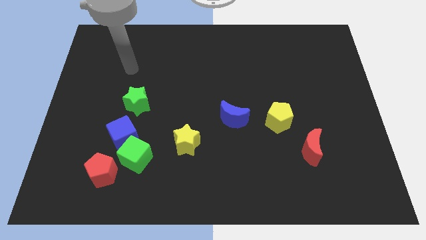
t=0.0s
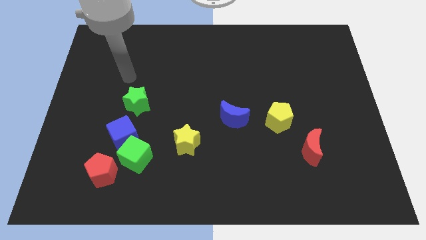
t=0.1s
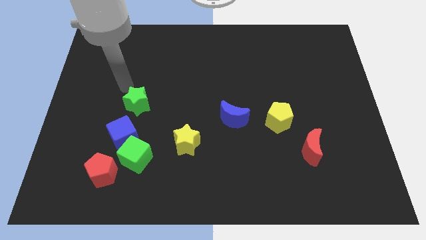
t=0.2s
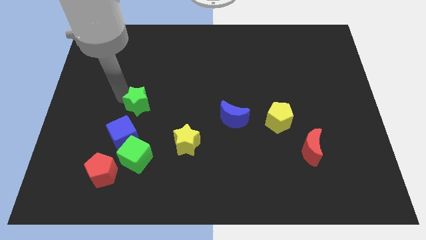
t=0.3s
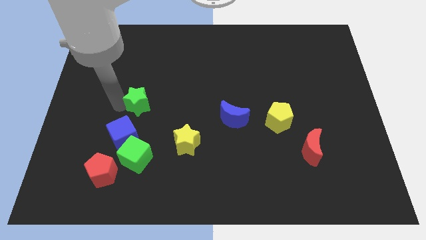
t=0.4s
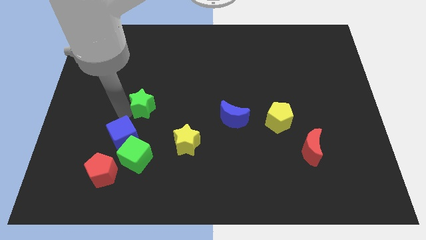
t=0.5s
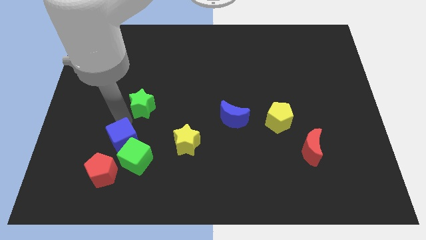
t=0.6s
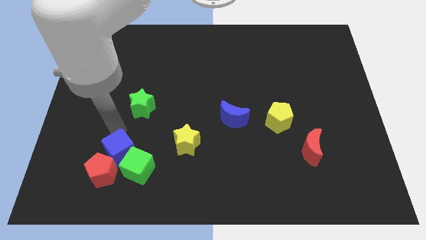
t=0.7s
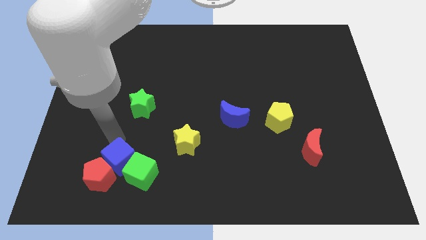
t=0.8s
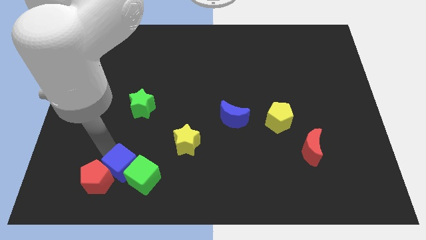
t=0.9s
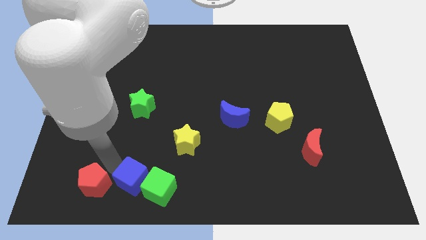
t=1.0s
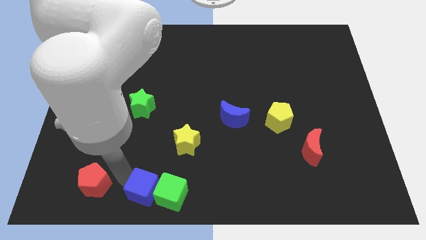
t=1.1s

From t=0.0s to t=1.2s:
separate the green cube from the blue cube and red pentagon

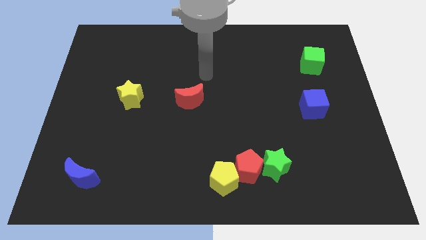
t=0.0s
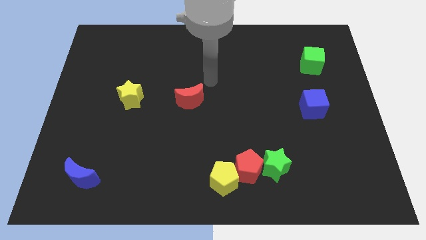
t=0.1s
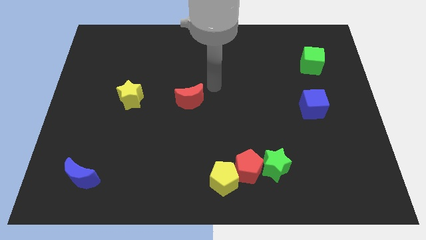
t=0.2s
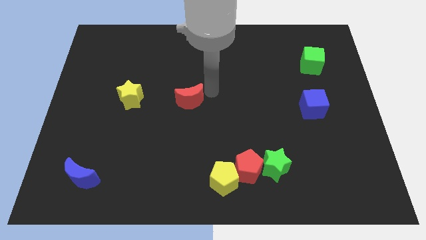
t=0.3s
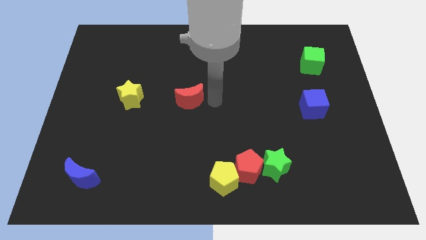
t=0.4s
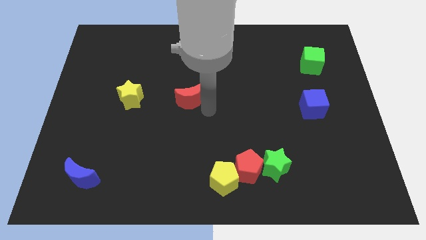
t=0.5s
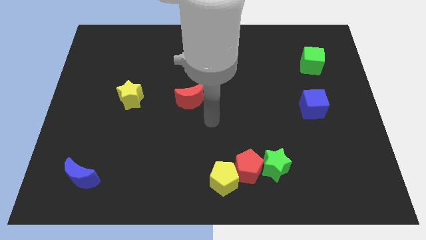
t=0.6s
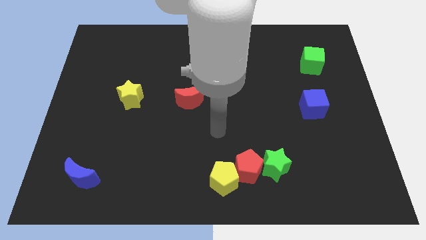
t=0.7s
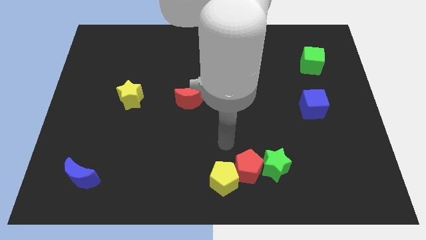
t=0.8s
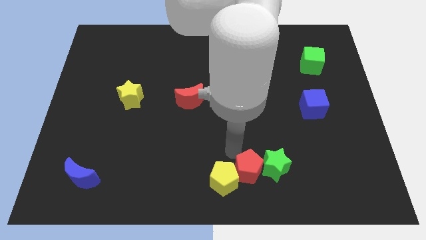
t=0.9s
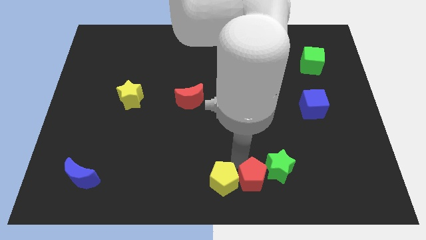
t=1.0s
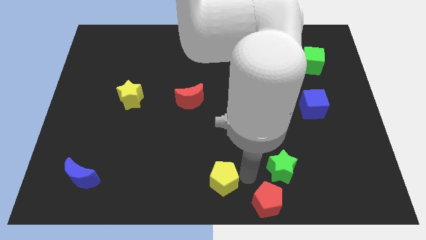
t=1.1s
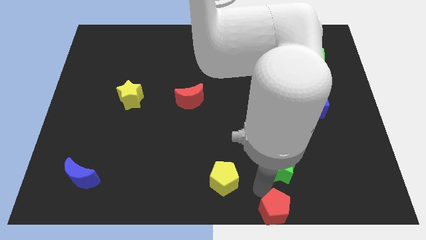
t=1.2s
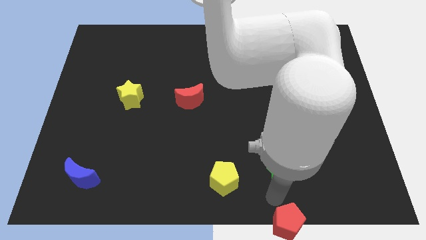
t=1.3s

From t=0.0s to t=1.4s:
move the green star away from the red pentagon

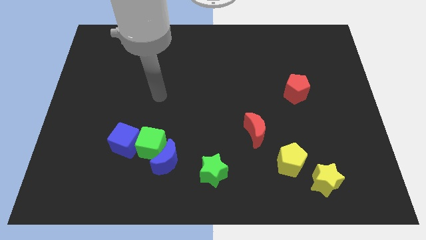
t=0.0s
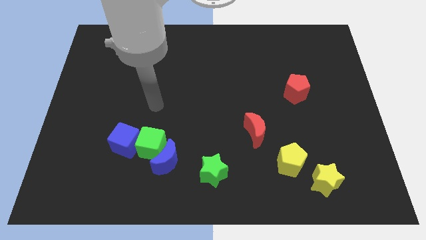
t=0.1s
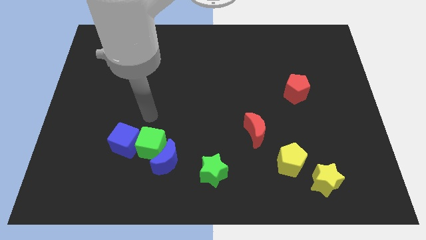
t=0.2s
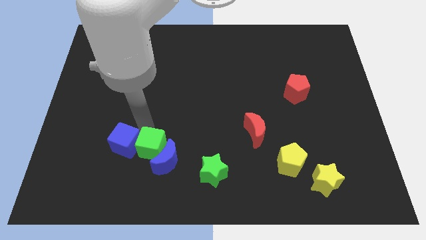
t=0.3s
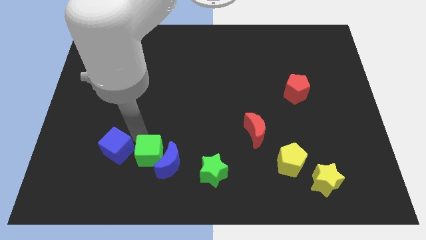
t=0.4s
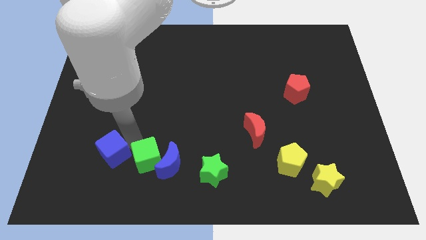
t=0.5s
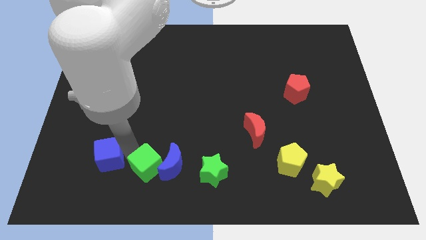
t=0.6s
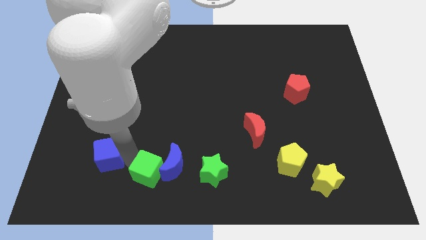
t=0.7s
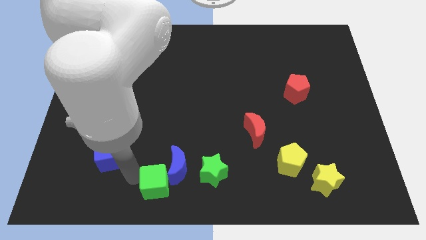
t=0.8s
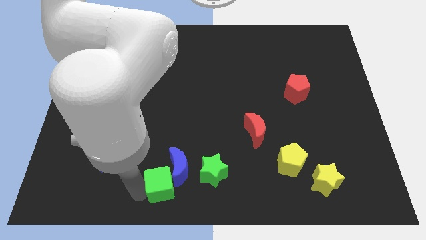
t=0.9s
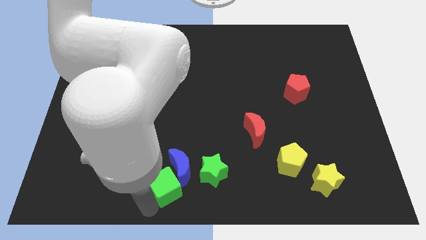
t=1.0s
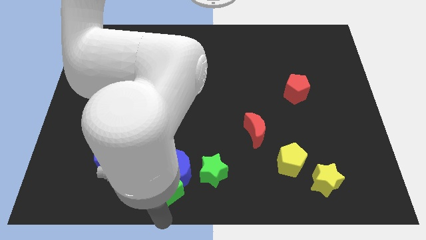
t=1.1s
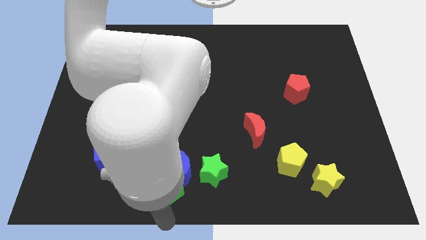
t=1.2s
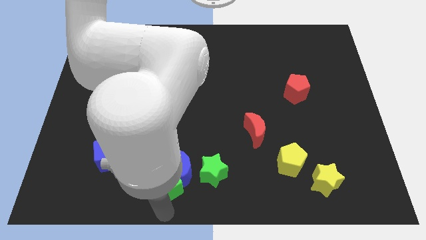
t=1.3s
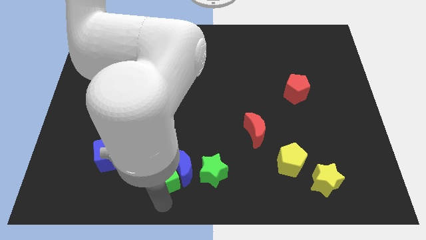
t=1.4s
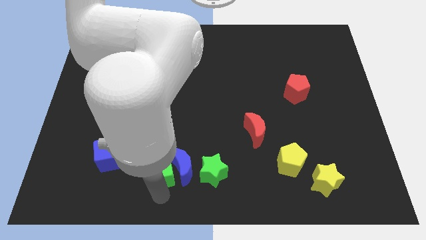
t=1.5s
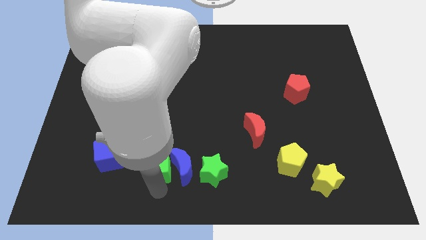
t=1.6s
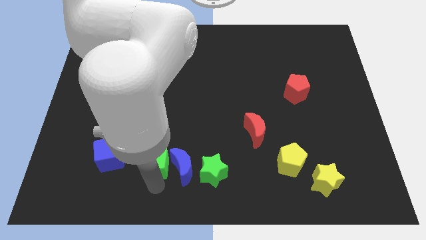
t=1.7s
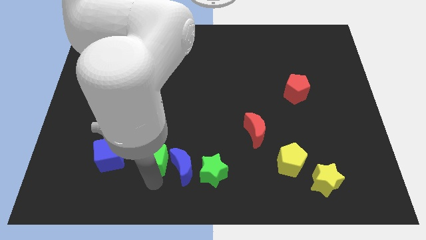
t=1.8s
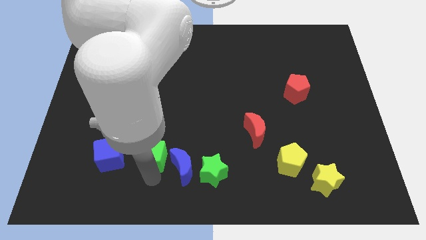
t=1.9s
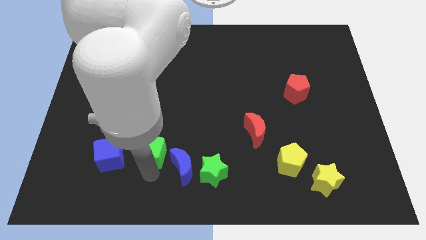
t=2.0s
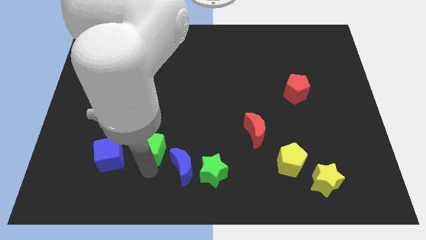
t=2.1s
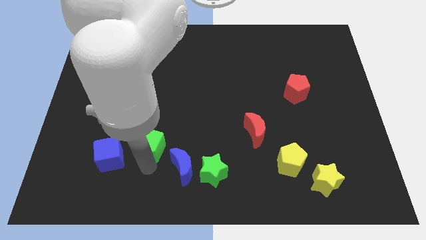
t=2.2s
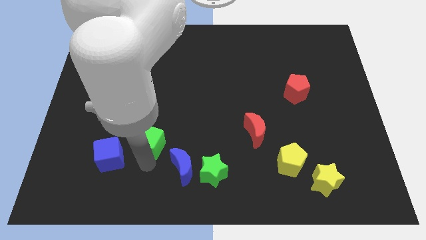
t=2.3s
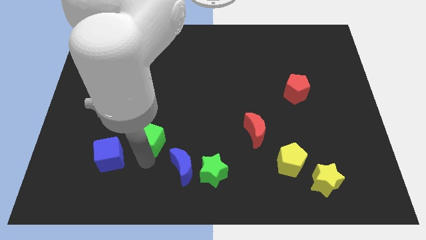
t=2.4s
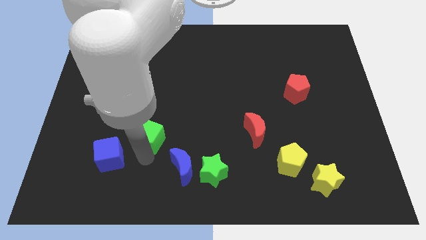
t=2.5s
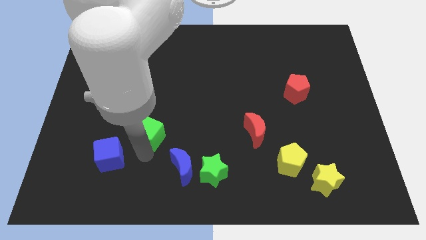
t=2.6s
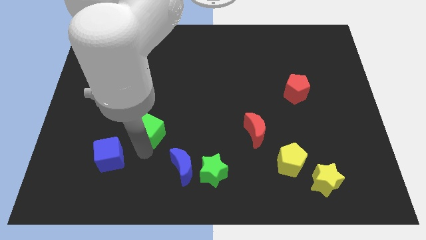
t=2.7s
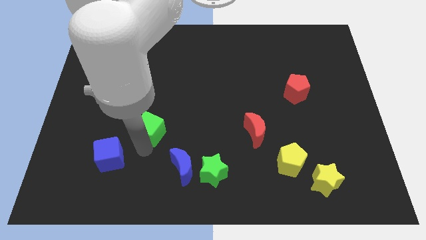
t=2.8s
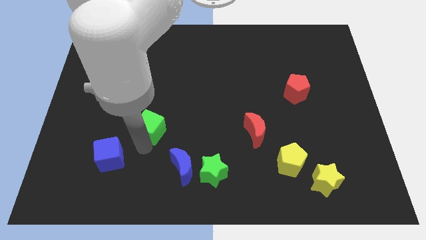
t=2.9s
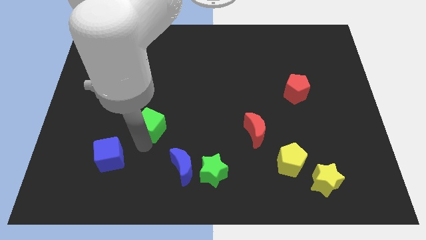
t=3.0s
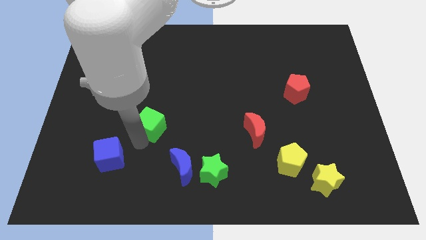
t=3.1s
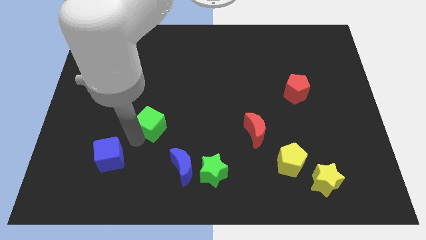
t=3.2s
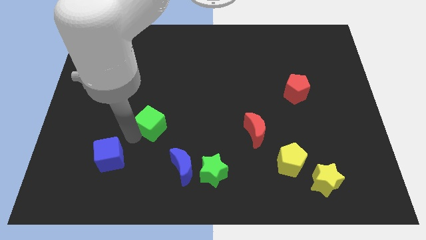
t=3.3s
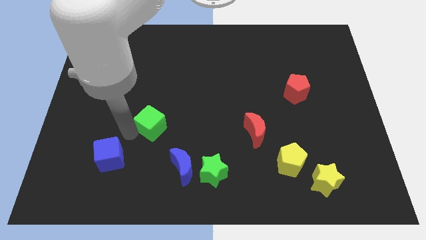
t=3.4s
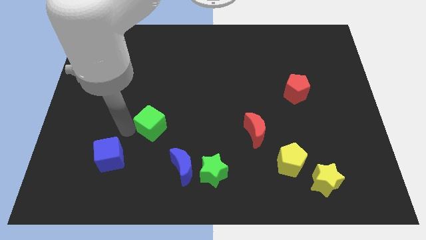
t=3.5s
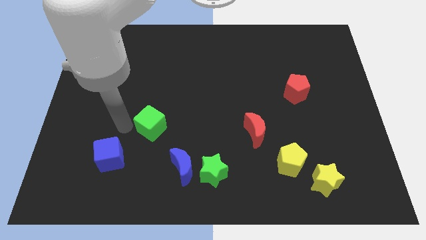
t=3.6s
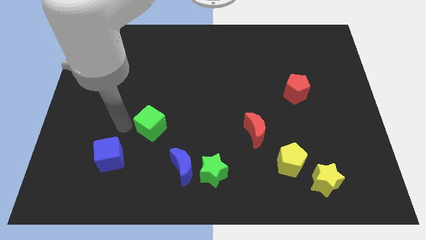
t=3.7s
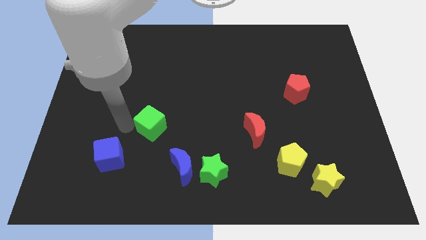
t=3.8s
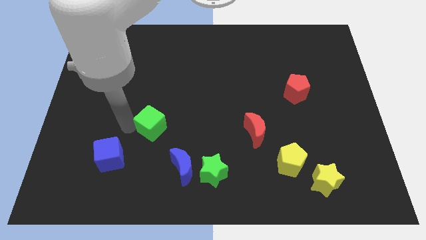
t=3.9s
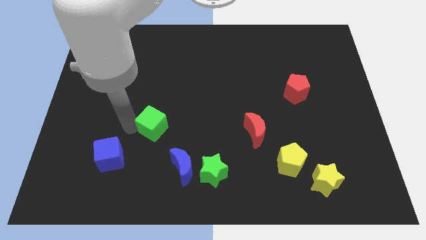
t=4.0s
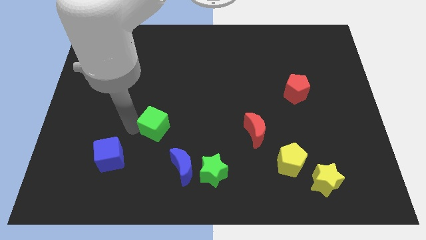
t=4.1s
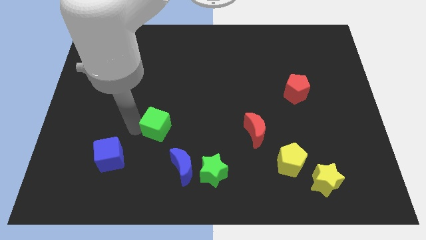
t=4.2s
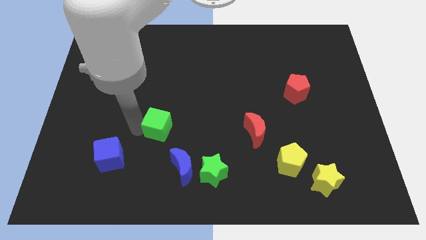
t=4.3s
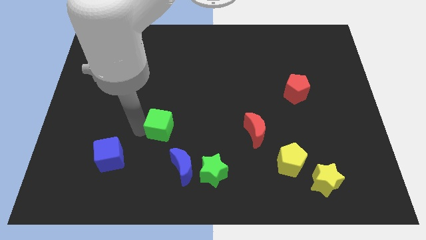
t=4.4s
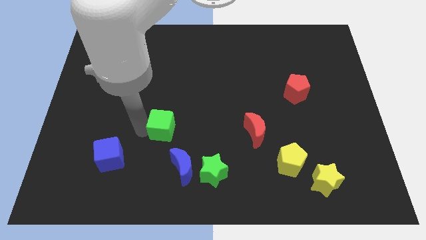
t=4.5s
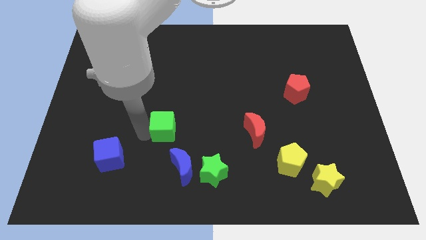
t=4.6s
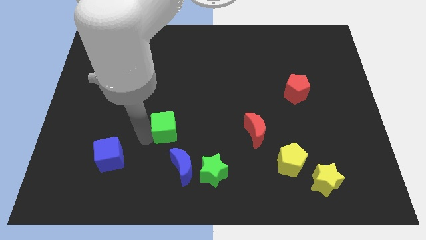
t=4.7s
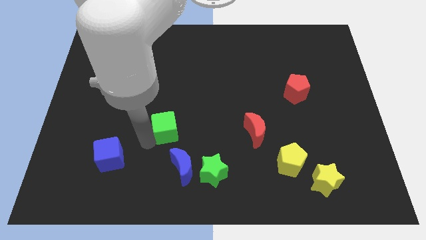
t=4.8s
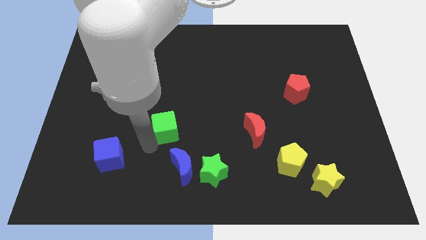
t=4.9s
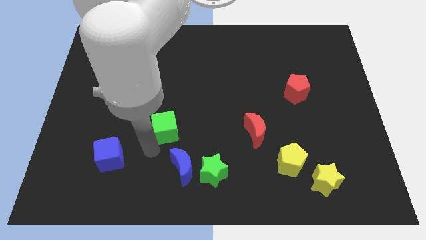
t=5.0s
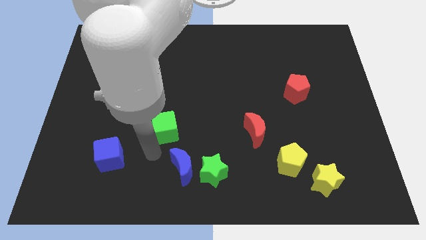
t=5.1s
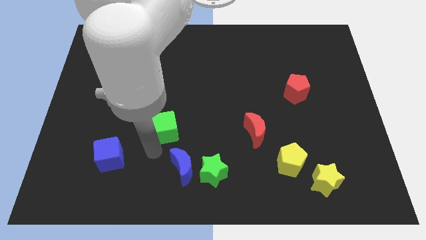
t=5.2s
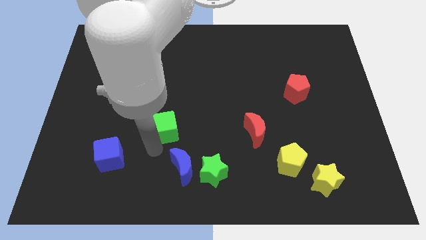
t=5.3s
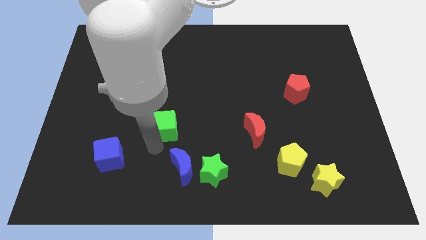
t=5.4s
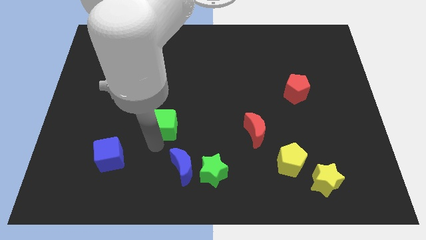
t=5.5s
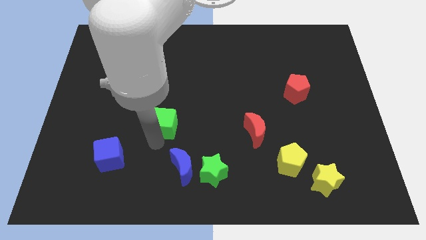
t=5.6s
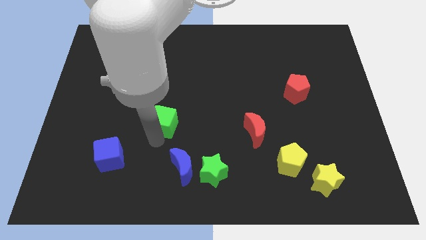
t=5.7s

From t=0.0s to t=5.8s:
pull the green cube apart from the blue moon and blue cube

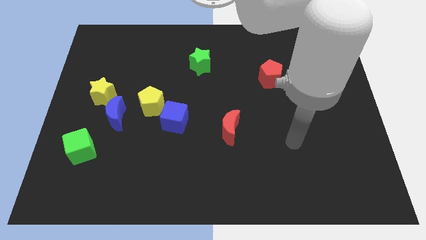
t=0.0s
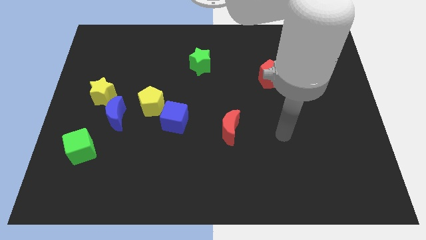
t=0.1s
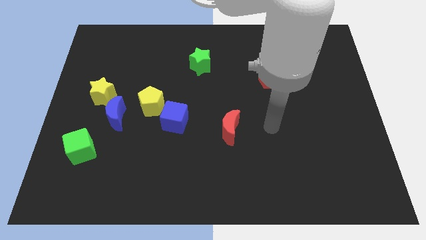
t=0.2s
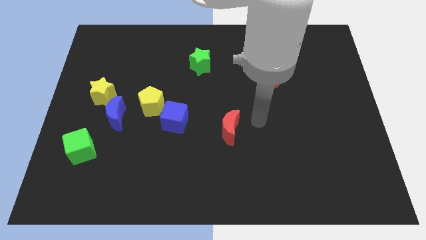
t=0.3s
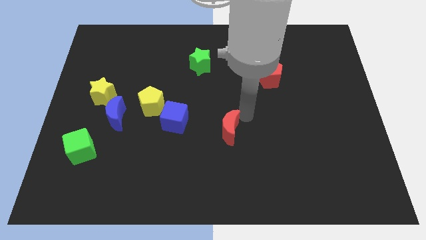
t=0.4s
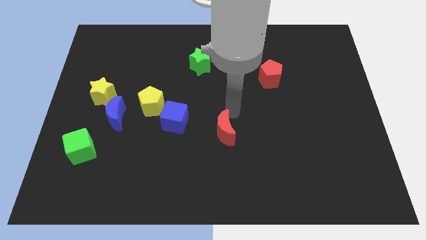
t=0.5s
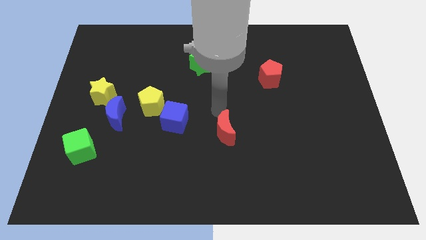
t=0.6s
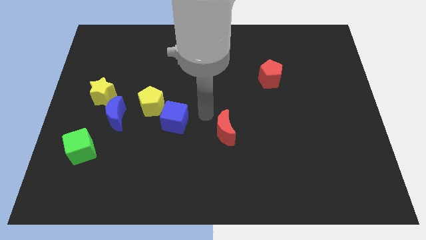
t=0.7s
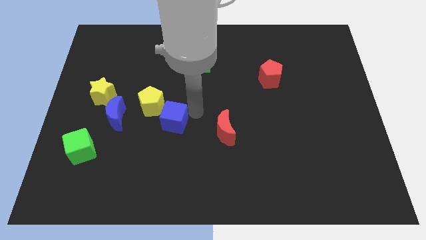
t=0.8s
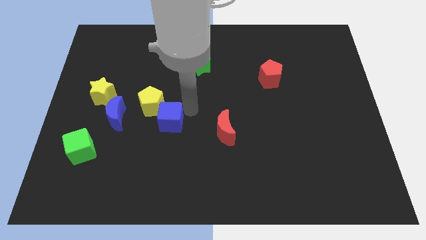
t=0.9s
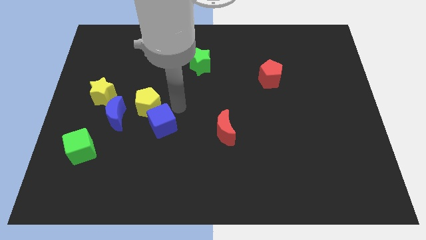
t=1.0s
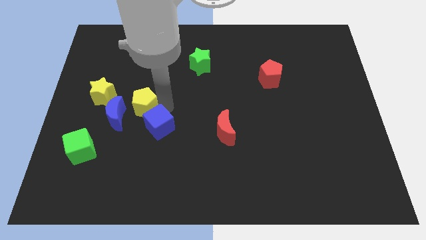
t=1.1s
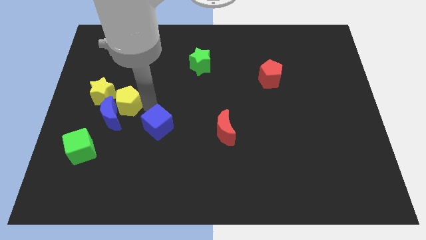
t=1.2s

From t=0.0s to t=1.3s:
pull the blue cube apart from the yellow pentagon
